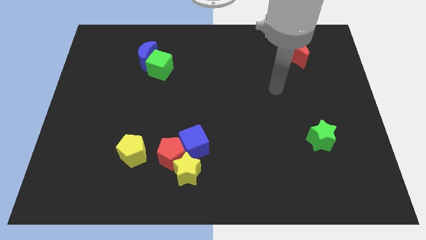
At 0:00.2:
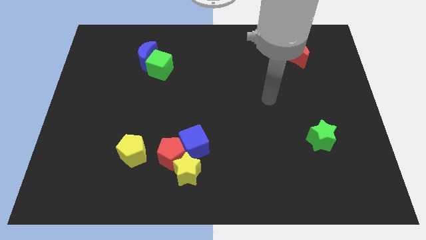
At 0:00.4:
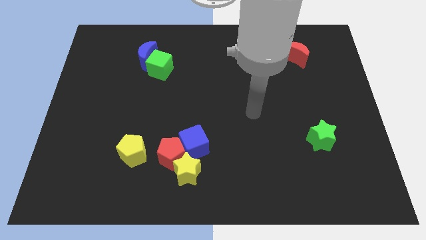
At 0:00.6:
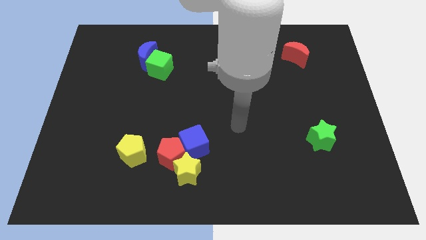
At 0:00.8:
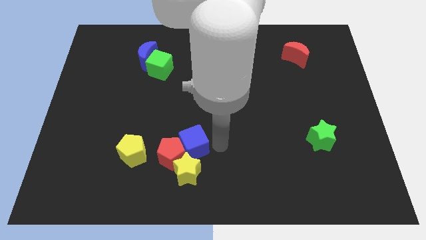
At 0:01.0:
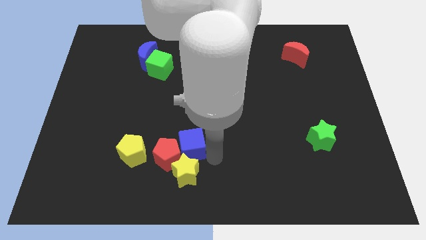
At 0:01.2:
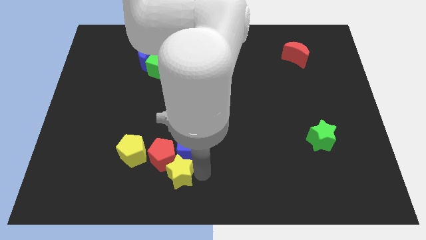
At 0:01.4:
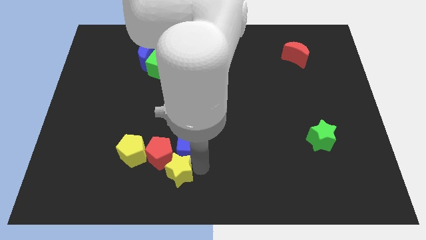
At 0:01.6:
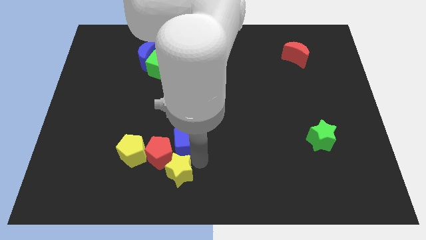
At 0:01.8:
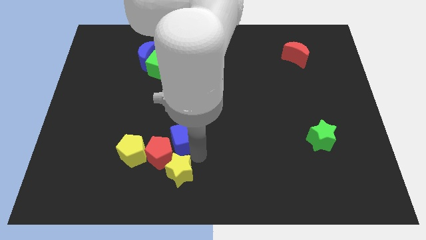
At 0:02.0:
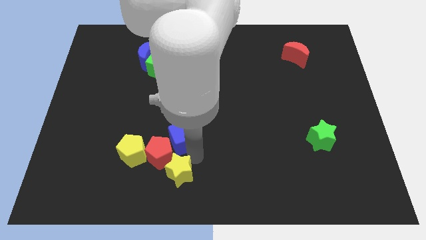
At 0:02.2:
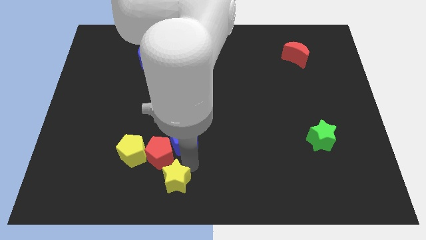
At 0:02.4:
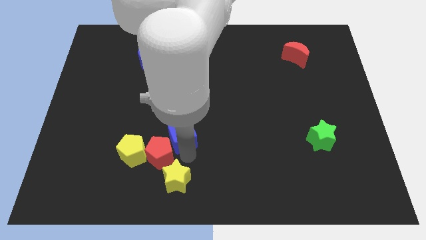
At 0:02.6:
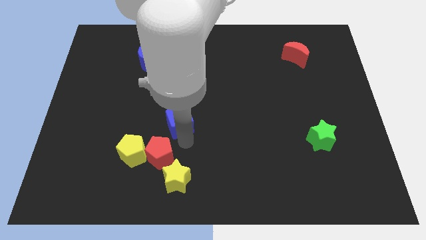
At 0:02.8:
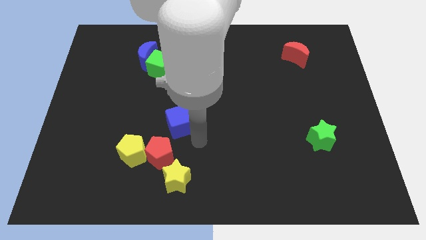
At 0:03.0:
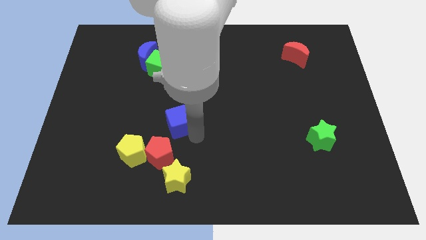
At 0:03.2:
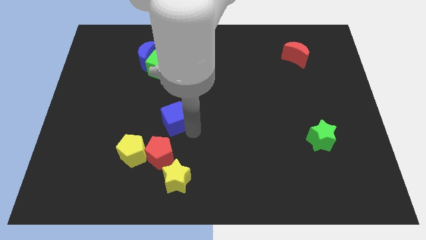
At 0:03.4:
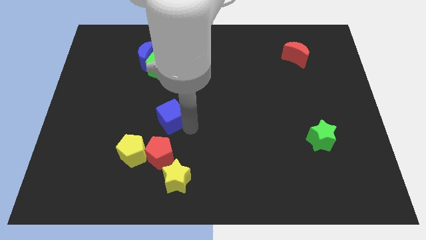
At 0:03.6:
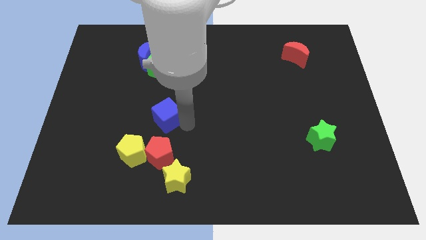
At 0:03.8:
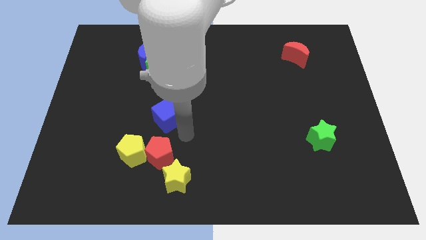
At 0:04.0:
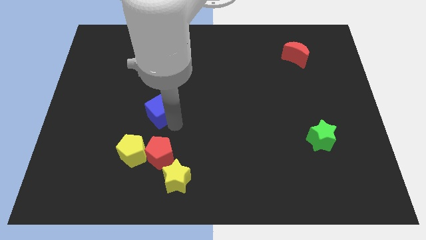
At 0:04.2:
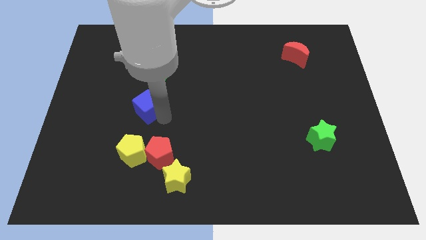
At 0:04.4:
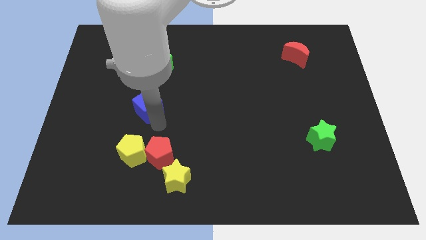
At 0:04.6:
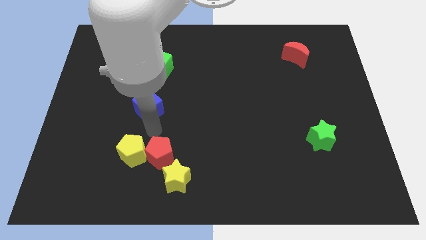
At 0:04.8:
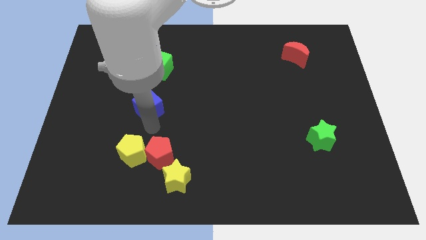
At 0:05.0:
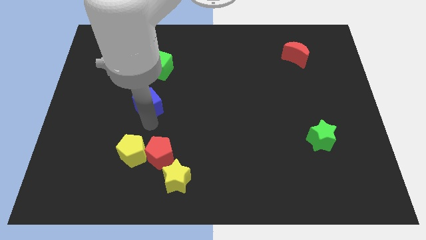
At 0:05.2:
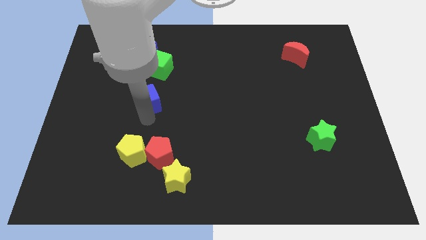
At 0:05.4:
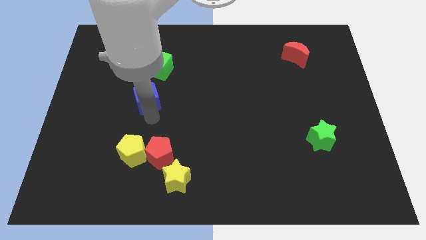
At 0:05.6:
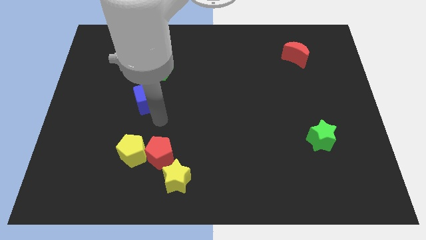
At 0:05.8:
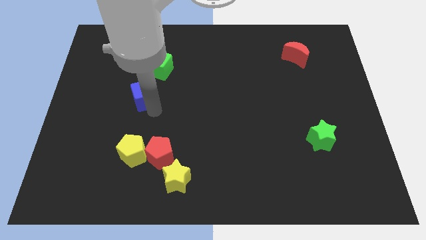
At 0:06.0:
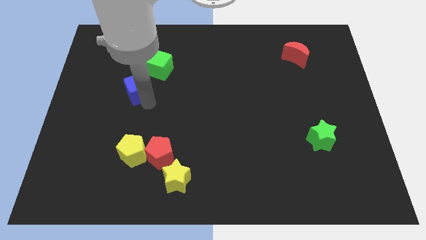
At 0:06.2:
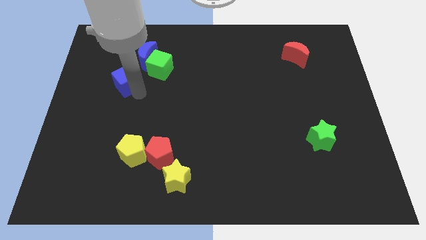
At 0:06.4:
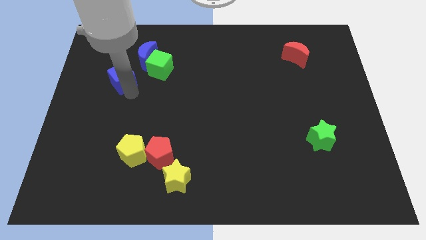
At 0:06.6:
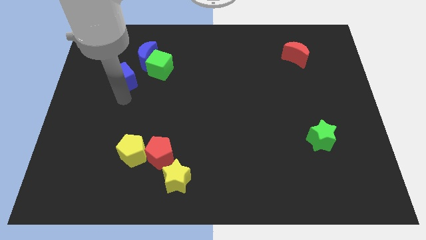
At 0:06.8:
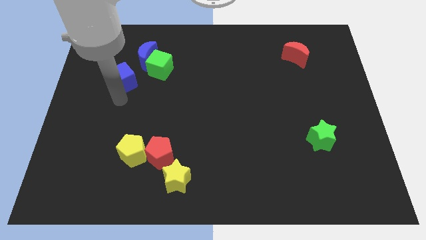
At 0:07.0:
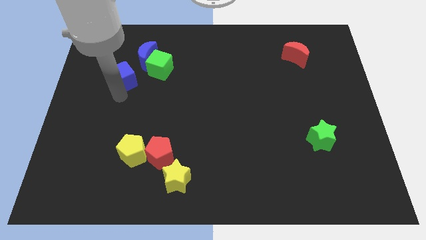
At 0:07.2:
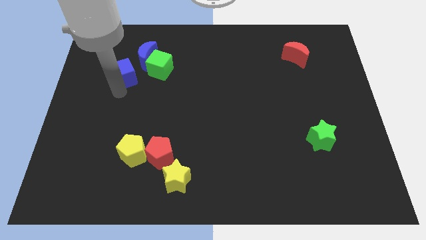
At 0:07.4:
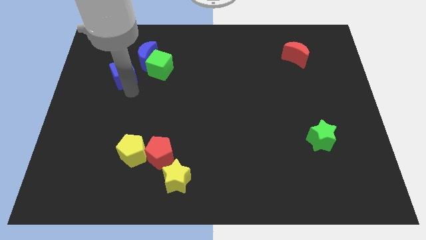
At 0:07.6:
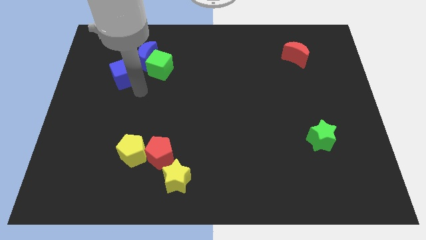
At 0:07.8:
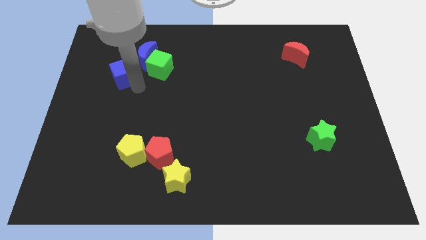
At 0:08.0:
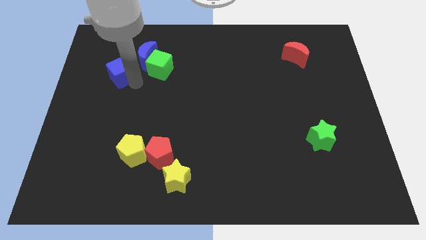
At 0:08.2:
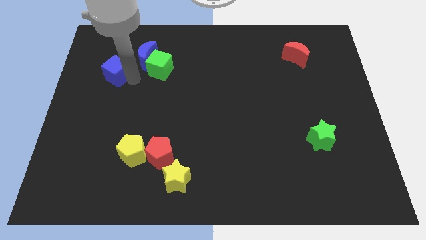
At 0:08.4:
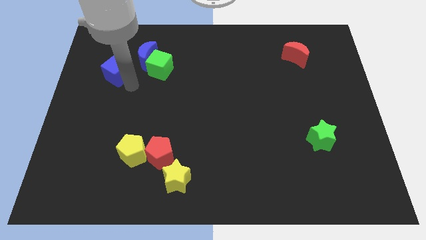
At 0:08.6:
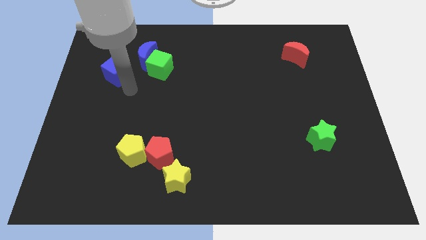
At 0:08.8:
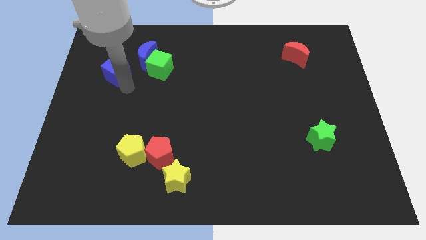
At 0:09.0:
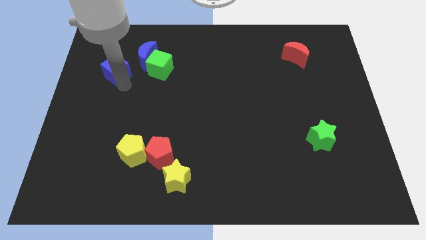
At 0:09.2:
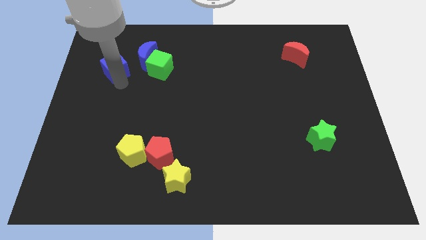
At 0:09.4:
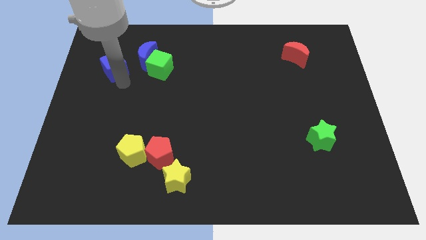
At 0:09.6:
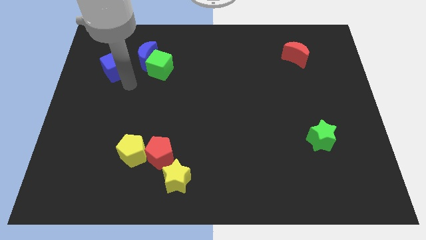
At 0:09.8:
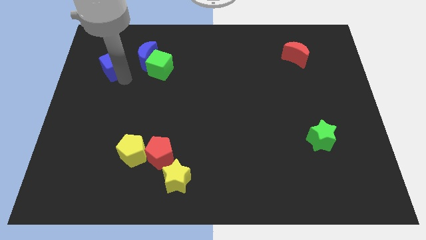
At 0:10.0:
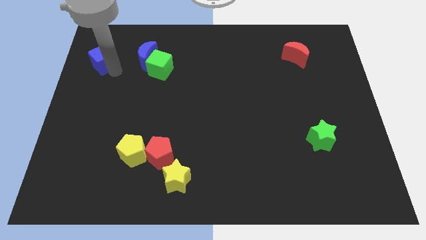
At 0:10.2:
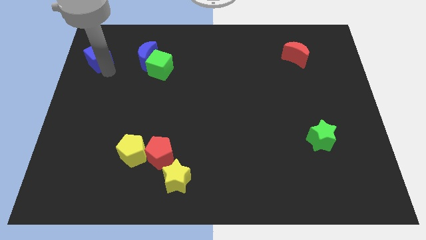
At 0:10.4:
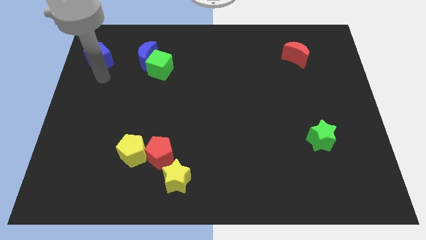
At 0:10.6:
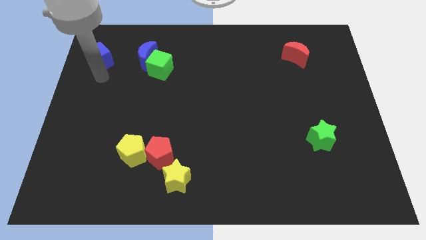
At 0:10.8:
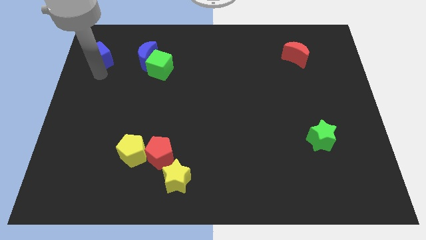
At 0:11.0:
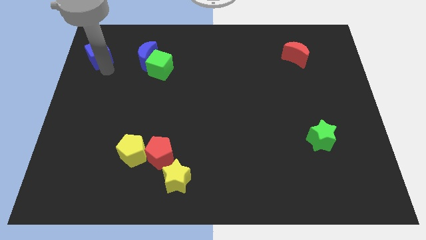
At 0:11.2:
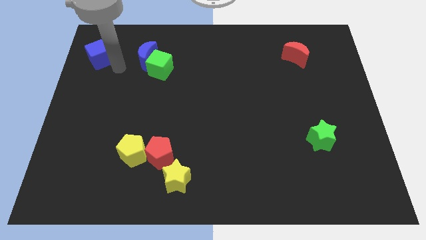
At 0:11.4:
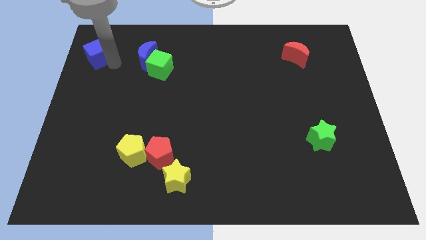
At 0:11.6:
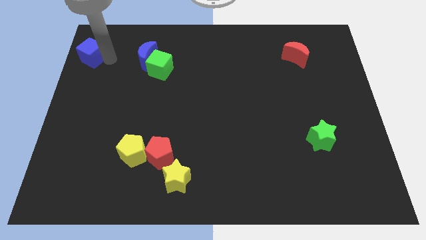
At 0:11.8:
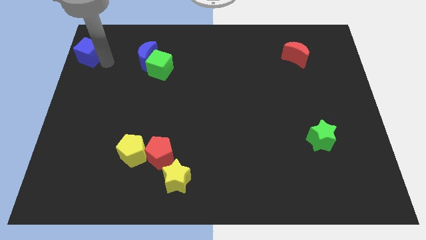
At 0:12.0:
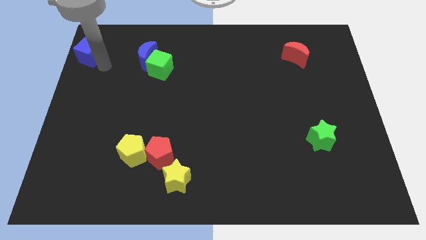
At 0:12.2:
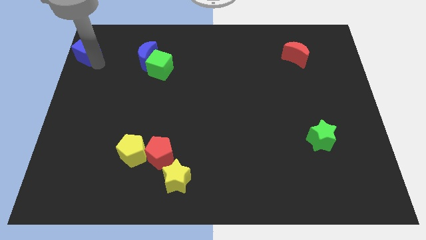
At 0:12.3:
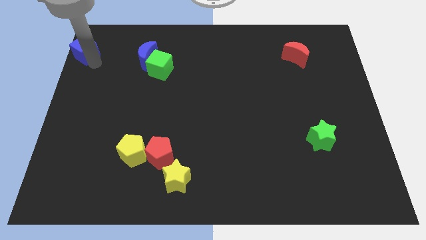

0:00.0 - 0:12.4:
slide the blue cube to the upper left corner

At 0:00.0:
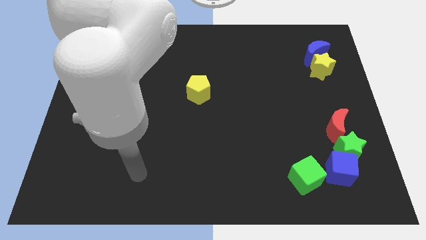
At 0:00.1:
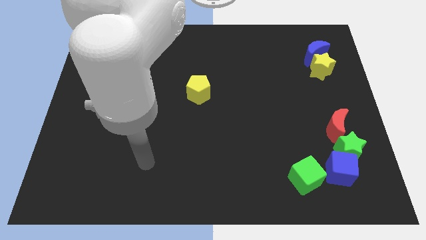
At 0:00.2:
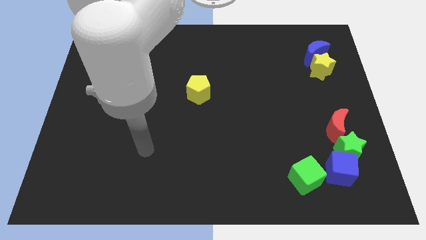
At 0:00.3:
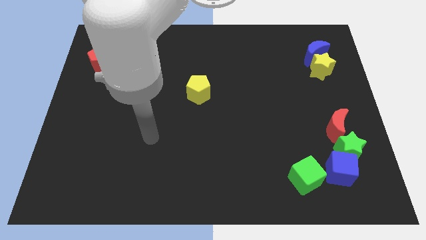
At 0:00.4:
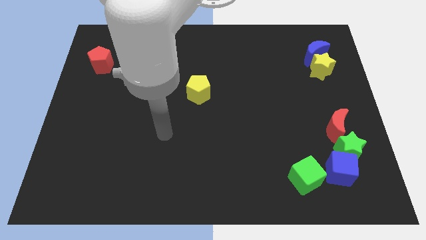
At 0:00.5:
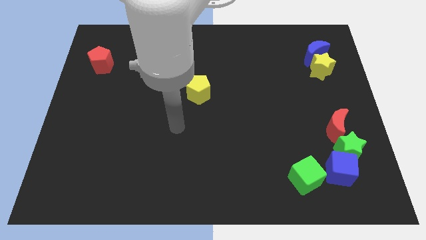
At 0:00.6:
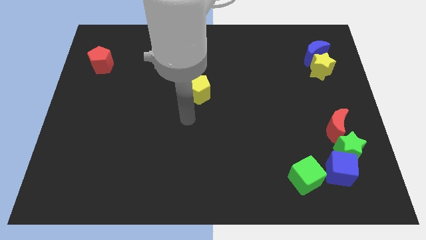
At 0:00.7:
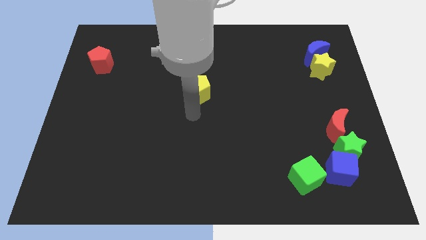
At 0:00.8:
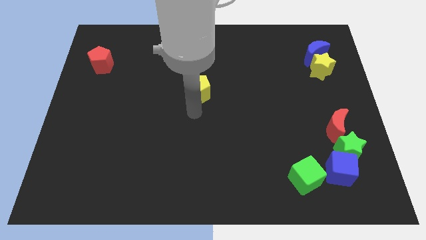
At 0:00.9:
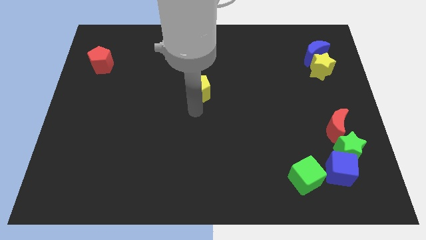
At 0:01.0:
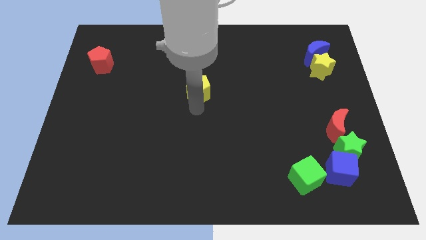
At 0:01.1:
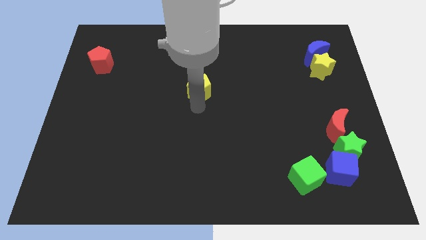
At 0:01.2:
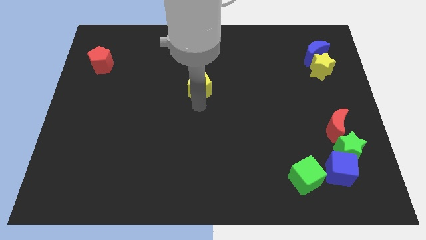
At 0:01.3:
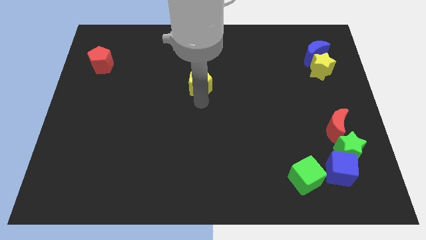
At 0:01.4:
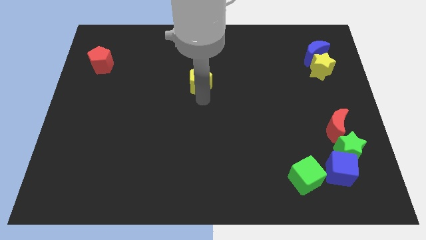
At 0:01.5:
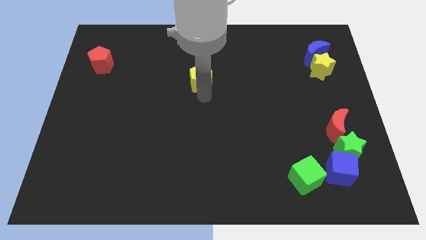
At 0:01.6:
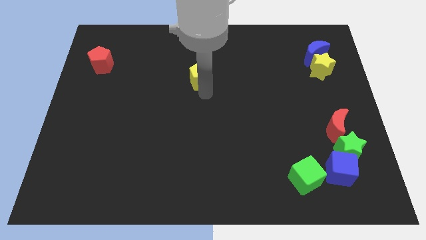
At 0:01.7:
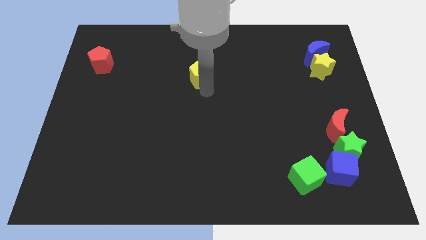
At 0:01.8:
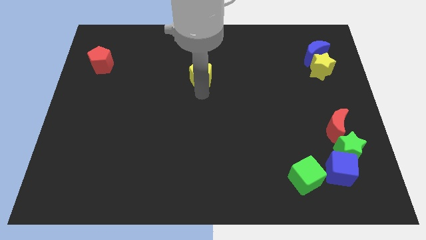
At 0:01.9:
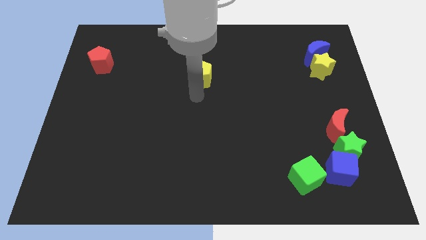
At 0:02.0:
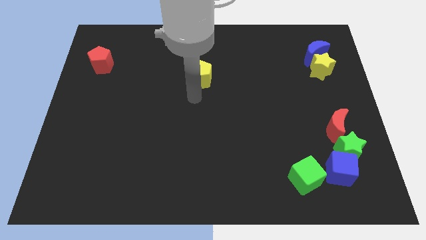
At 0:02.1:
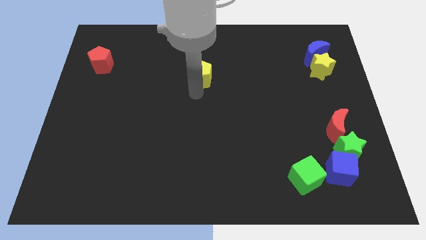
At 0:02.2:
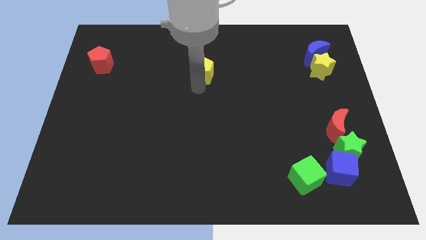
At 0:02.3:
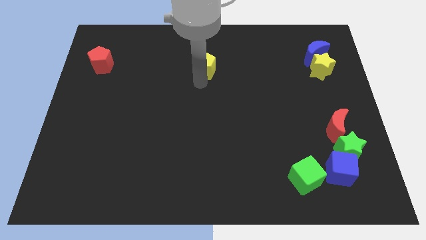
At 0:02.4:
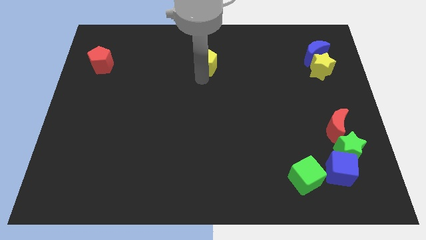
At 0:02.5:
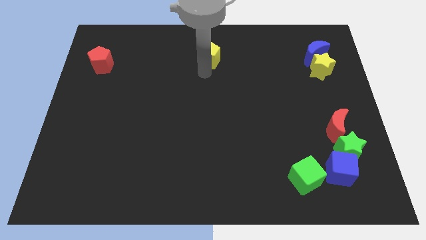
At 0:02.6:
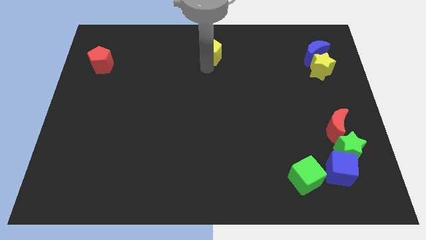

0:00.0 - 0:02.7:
put the yellow pentagon to the towards your base
